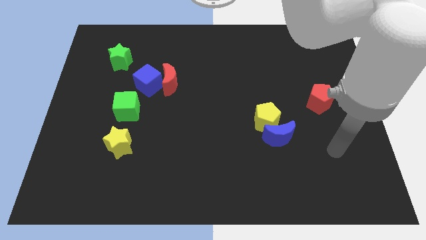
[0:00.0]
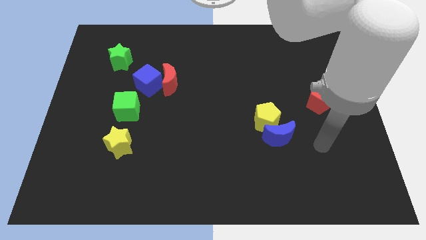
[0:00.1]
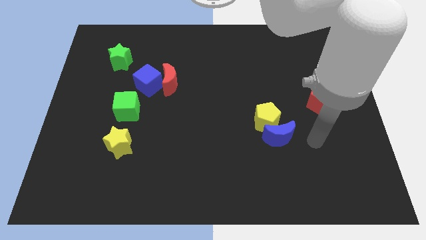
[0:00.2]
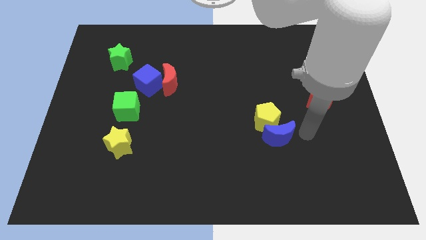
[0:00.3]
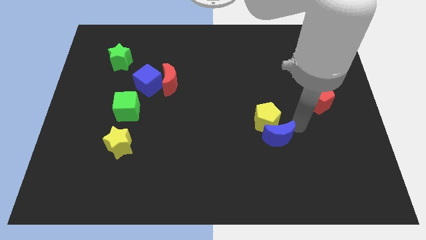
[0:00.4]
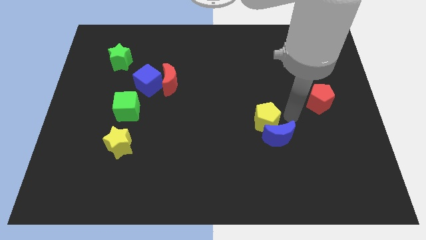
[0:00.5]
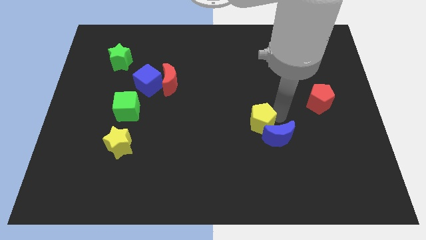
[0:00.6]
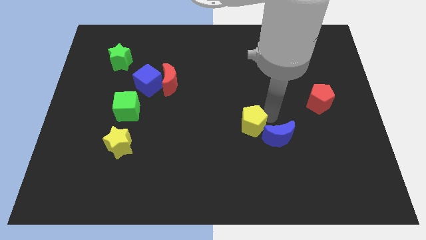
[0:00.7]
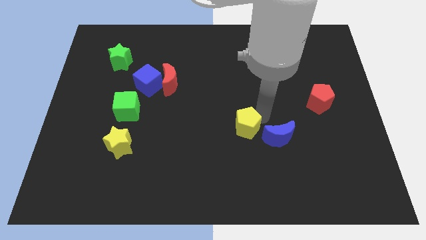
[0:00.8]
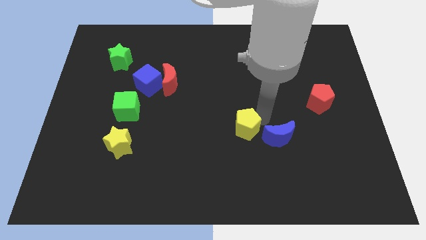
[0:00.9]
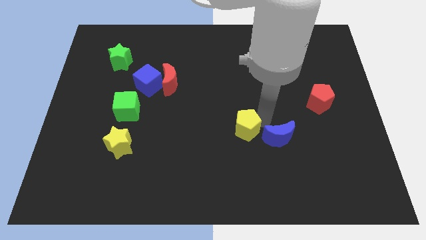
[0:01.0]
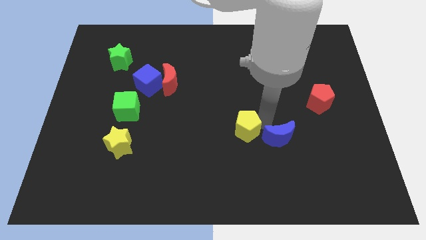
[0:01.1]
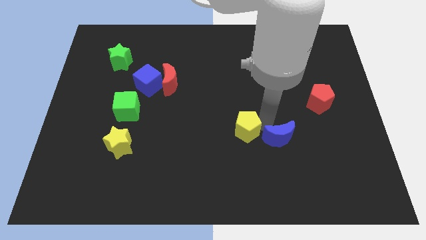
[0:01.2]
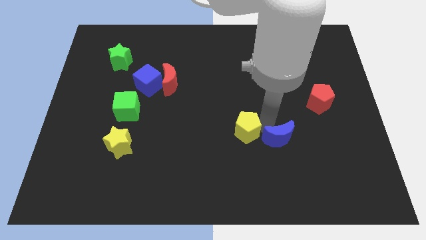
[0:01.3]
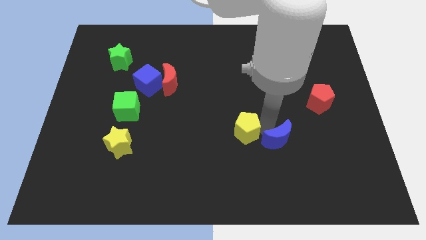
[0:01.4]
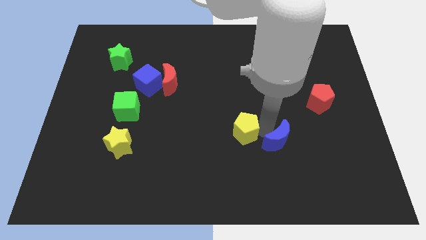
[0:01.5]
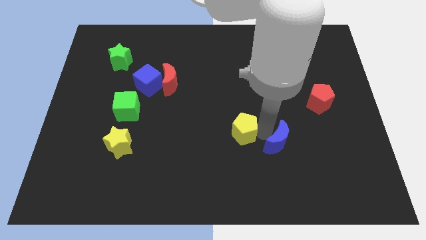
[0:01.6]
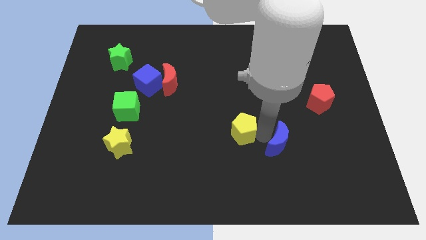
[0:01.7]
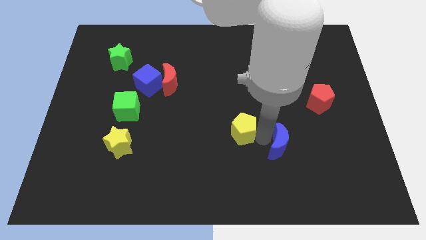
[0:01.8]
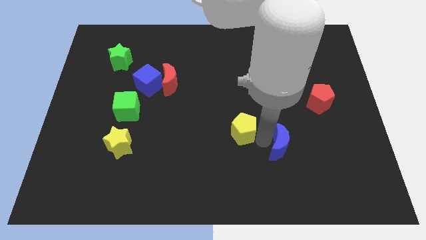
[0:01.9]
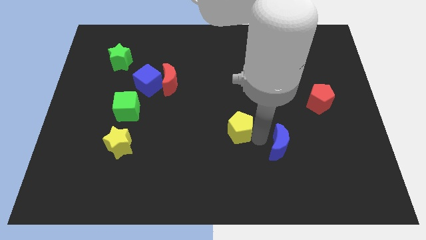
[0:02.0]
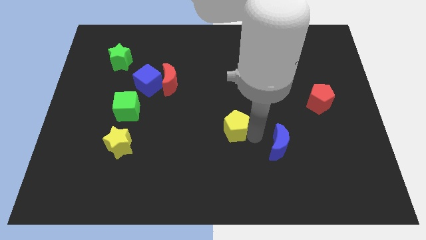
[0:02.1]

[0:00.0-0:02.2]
pull the blue moon apart from the yellow pentagon

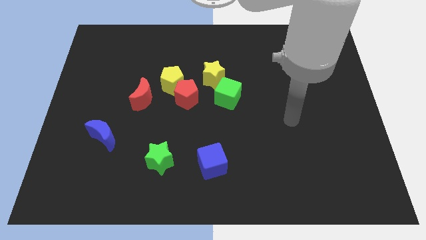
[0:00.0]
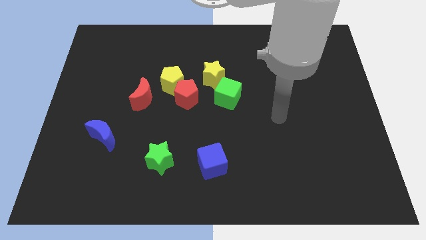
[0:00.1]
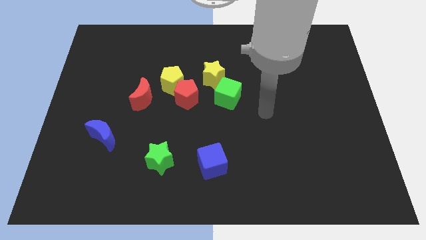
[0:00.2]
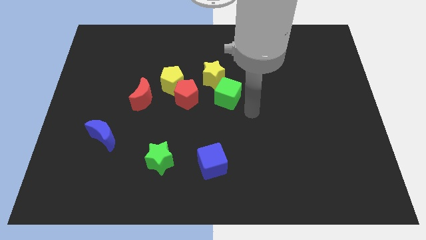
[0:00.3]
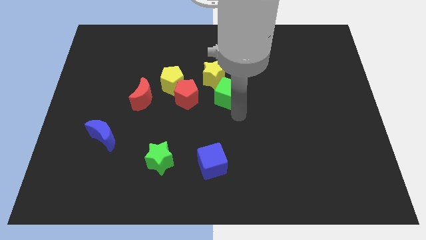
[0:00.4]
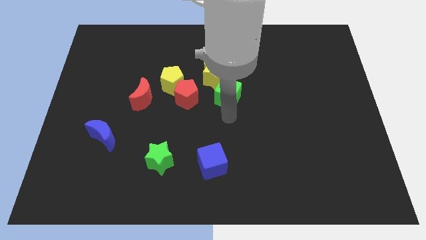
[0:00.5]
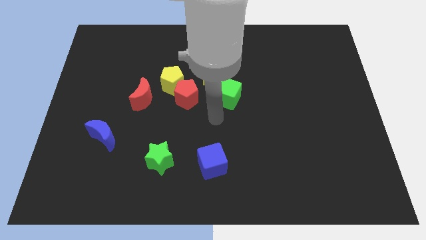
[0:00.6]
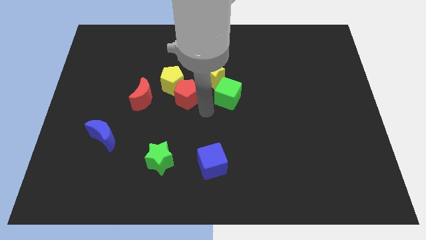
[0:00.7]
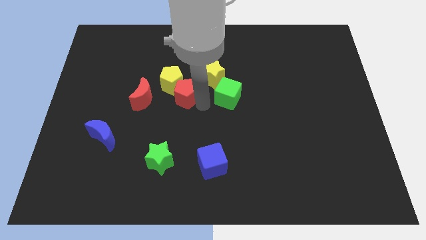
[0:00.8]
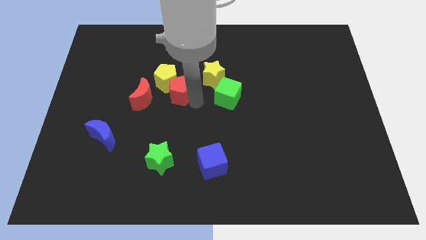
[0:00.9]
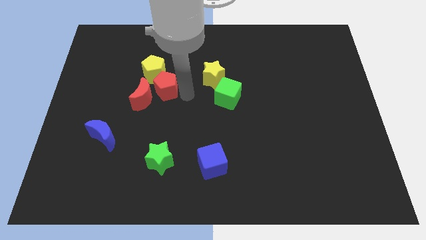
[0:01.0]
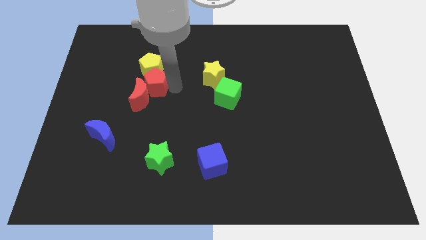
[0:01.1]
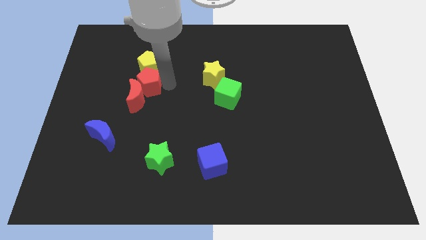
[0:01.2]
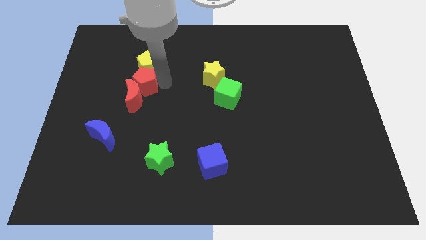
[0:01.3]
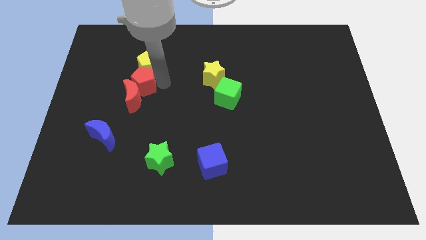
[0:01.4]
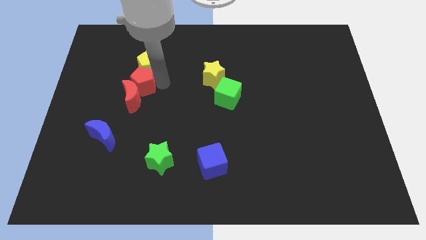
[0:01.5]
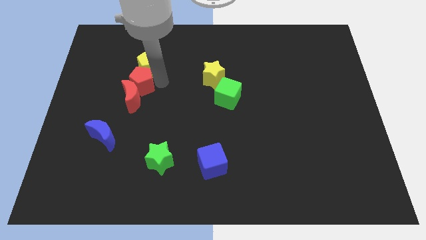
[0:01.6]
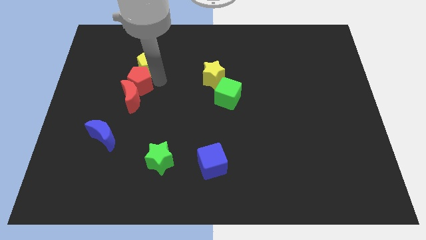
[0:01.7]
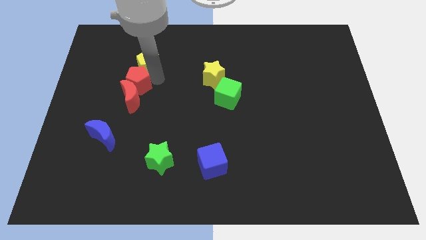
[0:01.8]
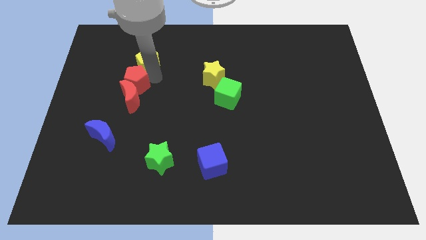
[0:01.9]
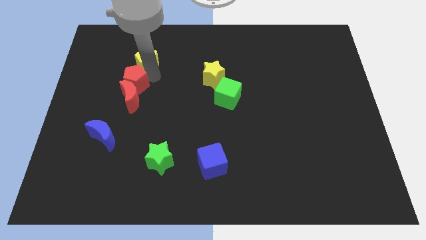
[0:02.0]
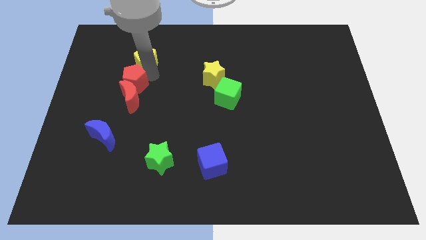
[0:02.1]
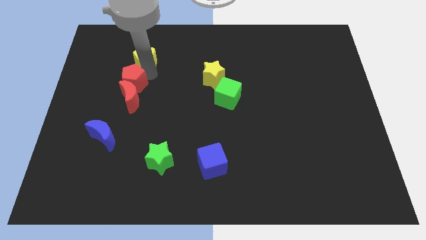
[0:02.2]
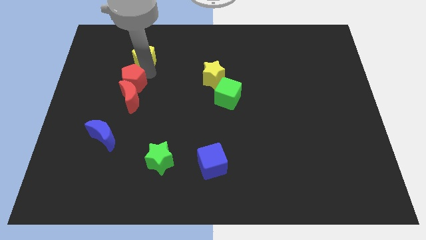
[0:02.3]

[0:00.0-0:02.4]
move the yellow pentagon away from the red pentagon, red moon, and yellow star

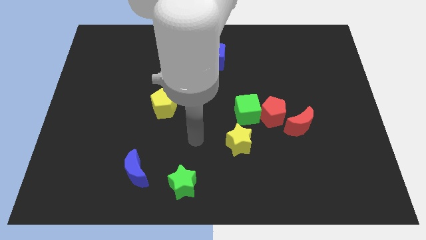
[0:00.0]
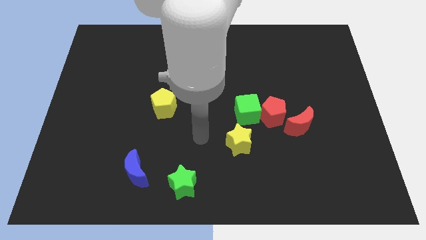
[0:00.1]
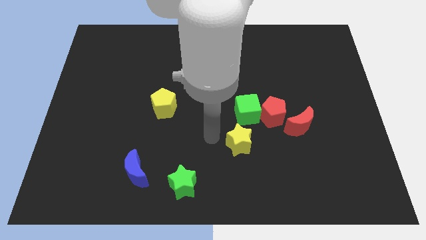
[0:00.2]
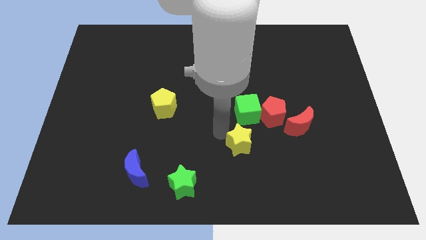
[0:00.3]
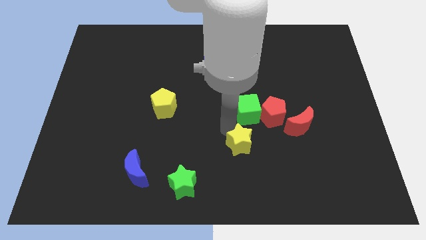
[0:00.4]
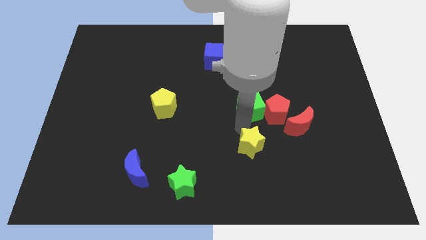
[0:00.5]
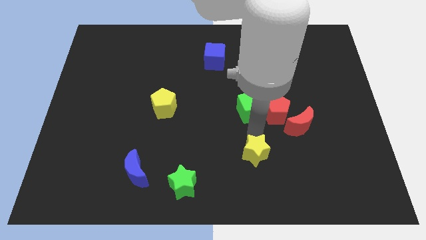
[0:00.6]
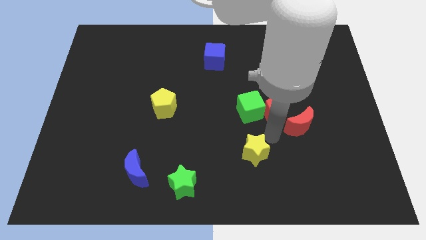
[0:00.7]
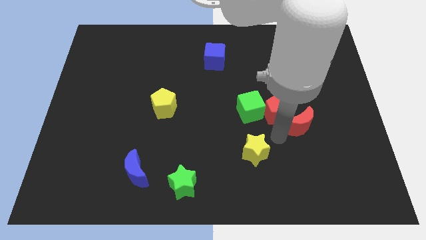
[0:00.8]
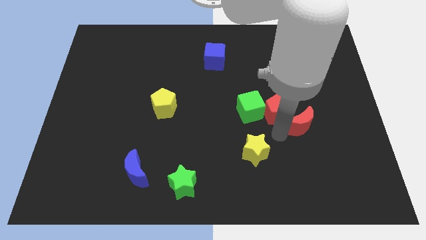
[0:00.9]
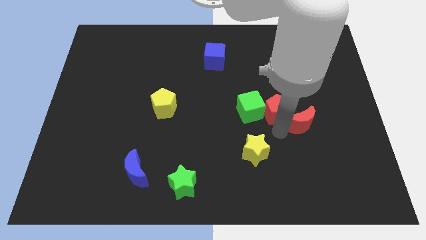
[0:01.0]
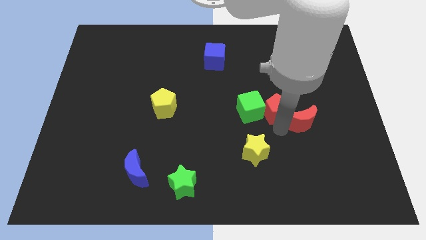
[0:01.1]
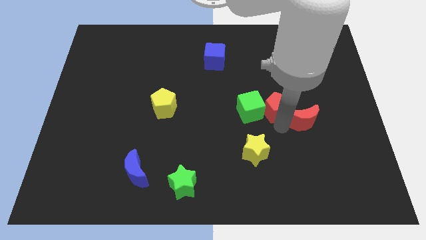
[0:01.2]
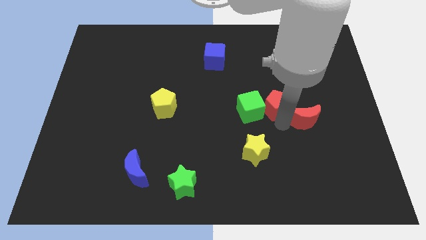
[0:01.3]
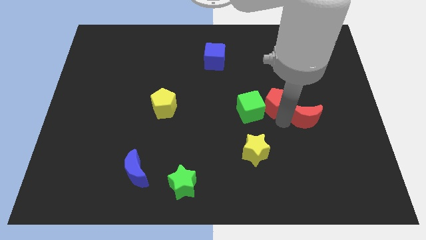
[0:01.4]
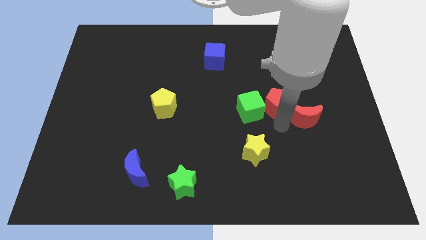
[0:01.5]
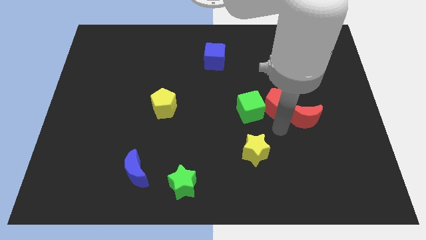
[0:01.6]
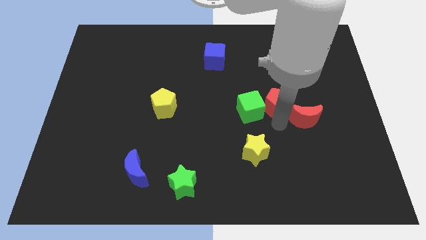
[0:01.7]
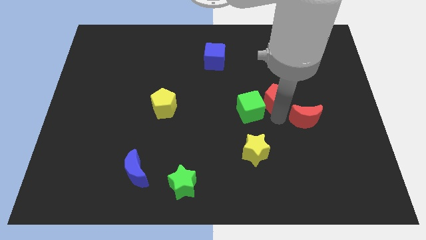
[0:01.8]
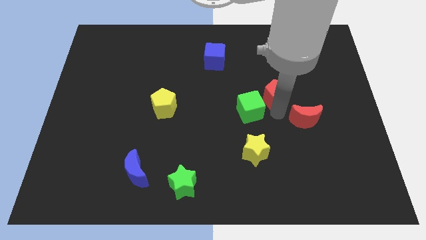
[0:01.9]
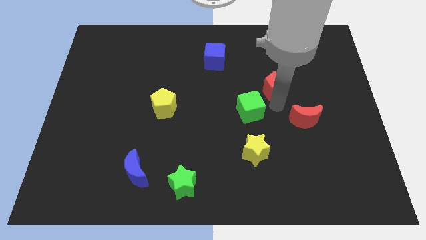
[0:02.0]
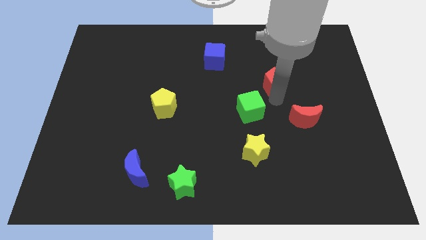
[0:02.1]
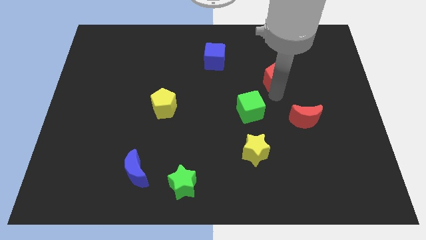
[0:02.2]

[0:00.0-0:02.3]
separate the red pentagon from the green cube and red moon

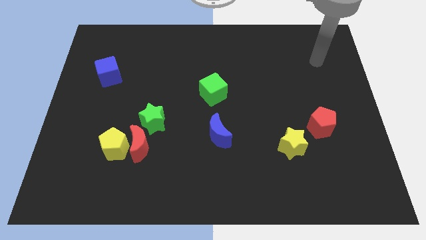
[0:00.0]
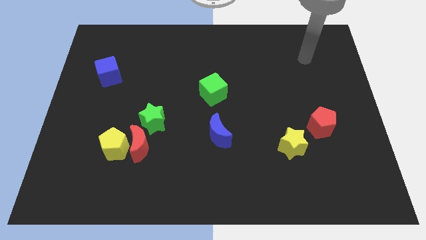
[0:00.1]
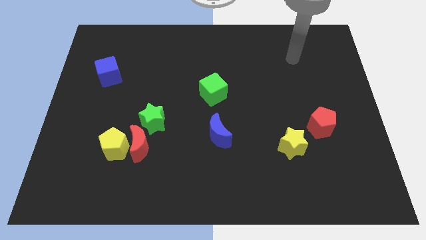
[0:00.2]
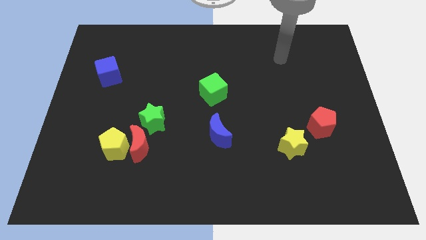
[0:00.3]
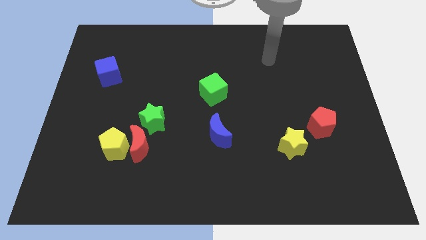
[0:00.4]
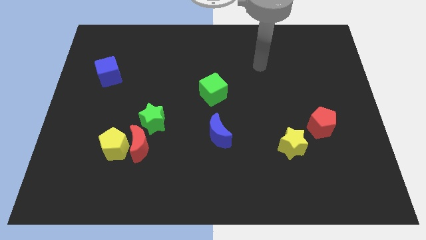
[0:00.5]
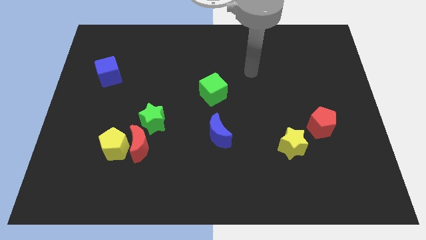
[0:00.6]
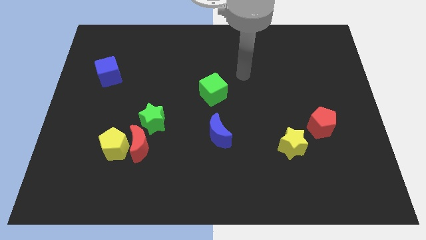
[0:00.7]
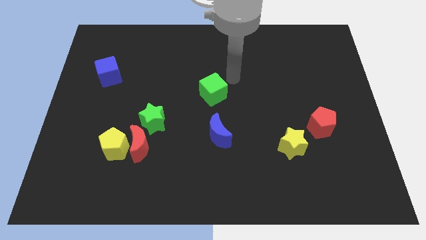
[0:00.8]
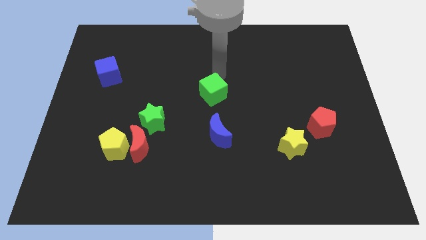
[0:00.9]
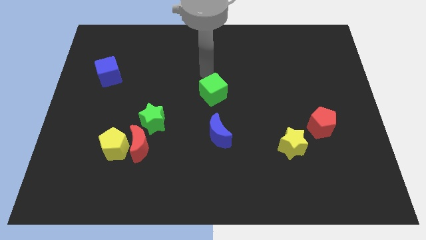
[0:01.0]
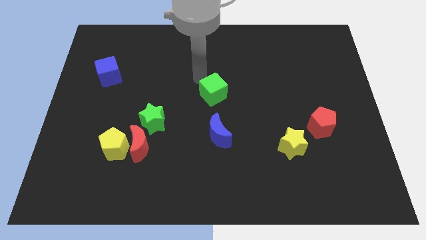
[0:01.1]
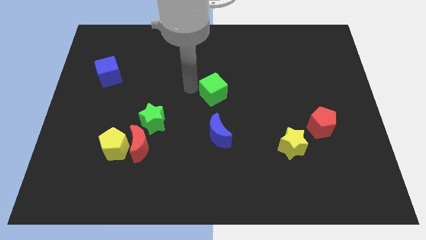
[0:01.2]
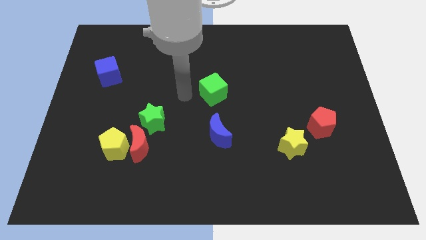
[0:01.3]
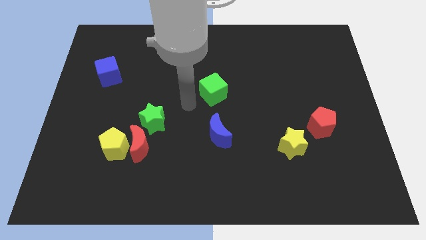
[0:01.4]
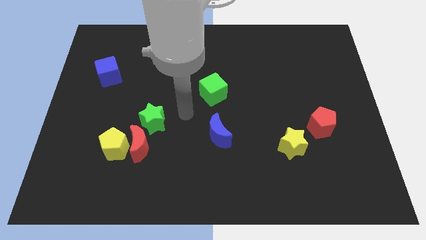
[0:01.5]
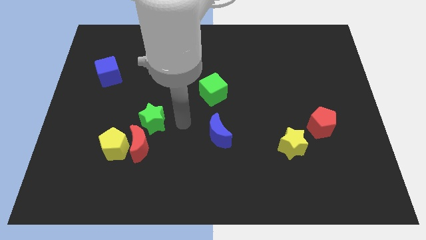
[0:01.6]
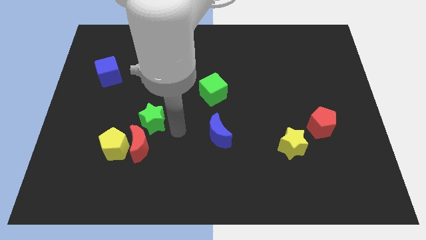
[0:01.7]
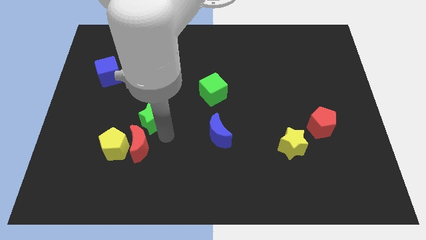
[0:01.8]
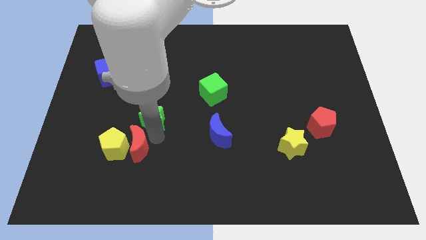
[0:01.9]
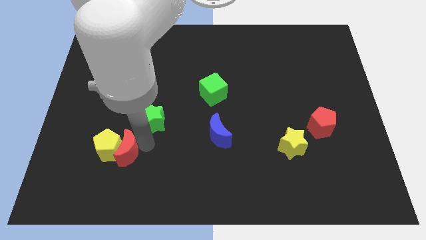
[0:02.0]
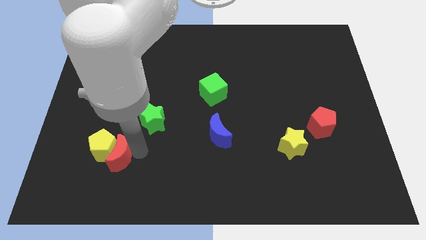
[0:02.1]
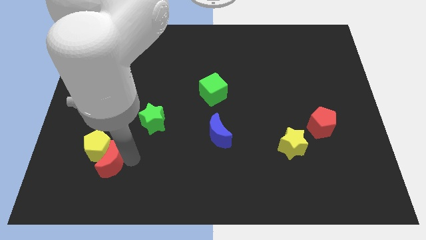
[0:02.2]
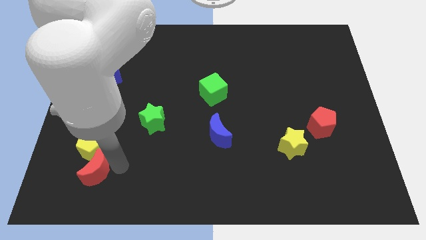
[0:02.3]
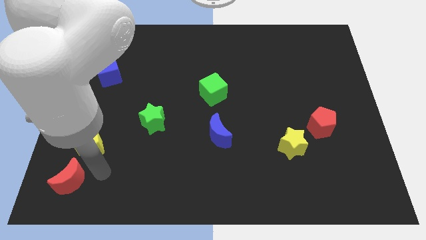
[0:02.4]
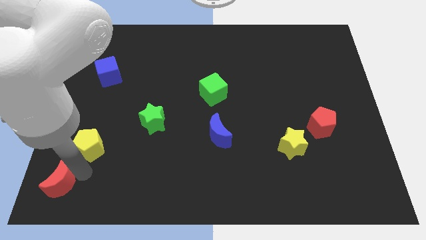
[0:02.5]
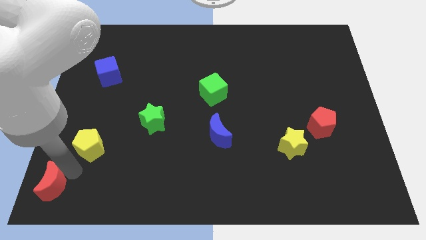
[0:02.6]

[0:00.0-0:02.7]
separate the yellow pentagon from the red moon
